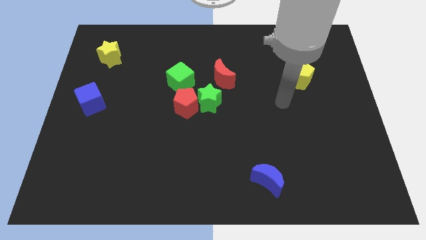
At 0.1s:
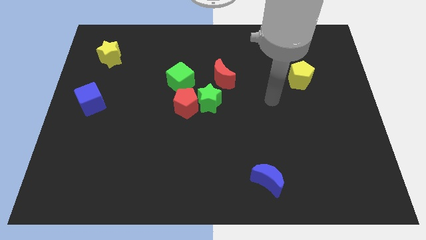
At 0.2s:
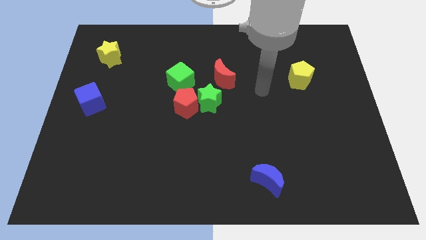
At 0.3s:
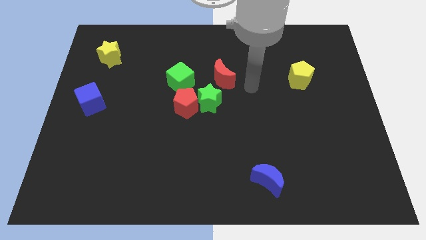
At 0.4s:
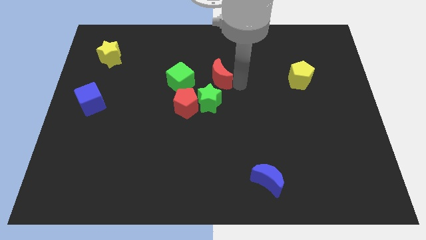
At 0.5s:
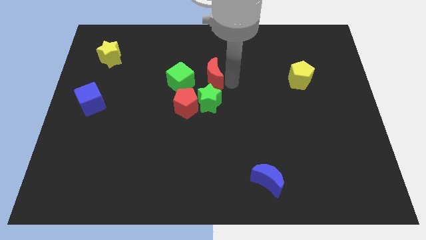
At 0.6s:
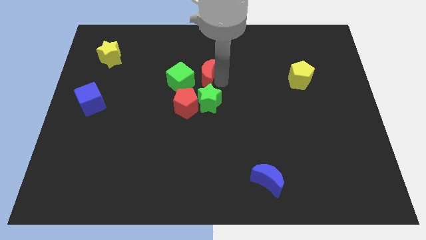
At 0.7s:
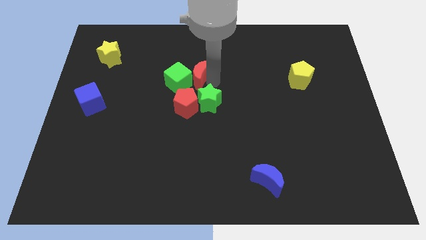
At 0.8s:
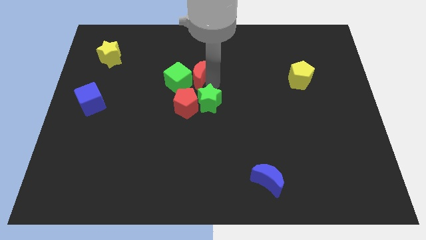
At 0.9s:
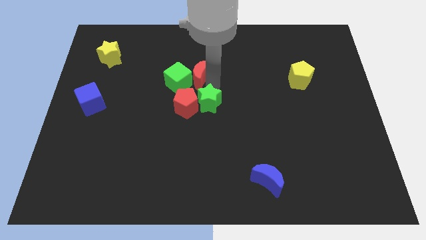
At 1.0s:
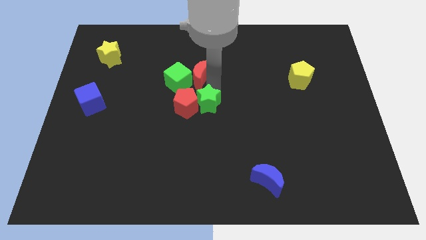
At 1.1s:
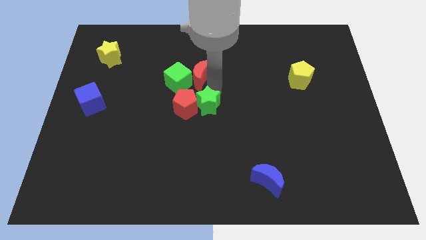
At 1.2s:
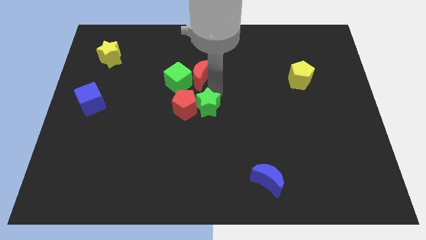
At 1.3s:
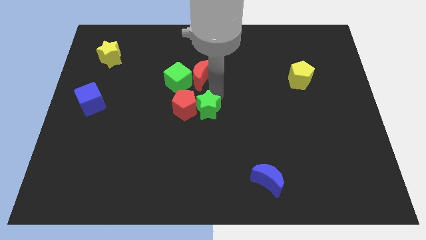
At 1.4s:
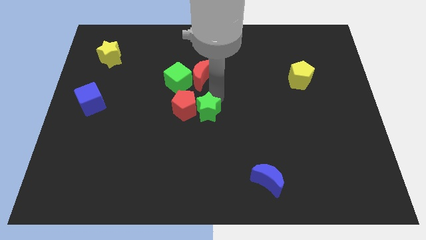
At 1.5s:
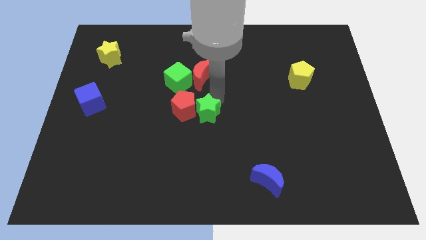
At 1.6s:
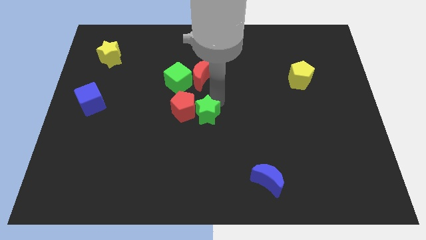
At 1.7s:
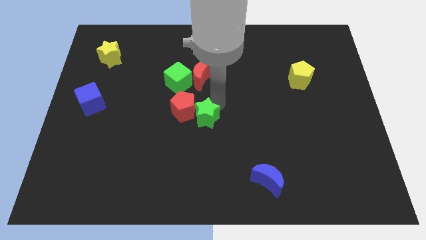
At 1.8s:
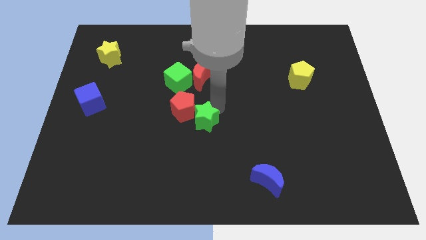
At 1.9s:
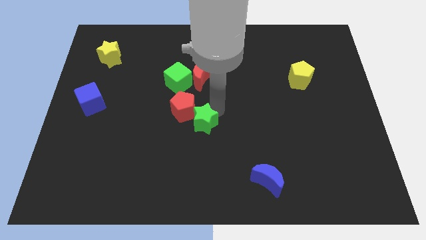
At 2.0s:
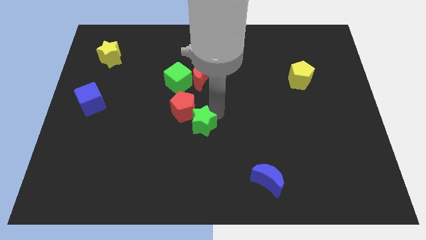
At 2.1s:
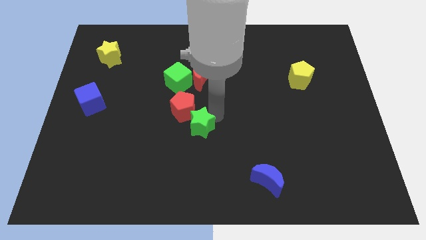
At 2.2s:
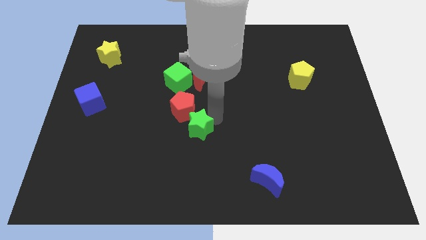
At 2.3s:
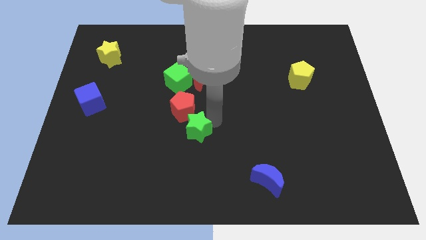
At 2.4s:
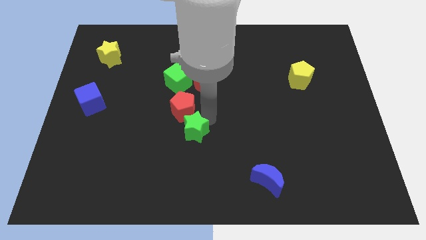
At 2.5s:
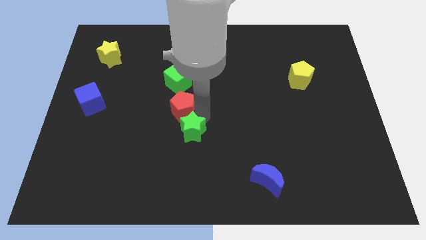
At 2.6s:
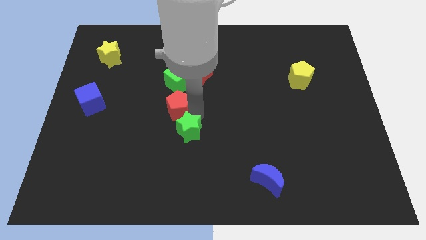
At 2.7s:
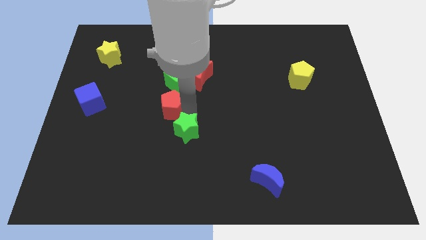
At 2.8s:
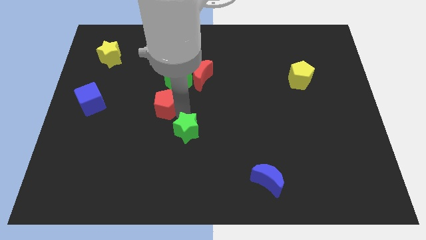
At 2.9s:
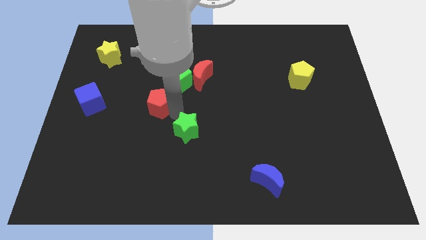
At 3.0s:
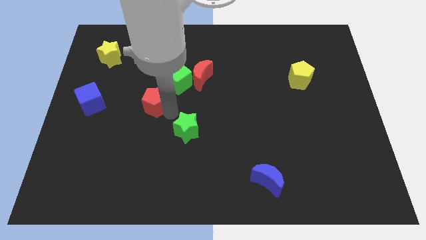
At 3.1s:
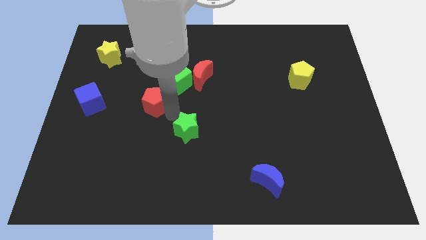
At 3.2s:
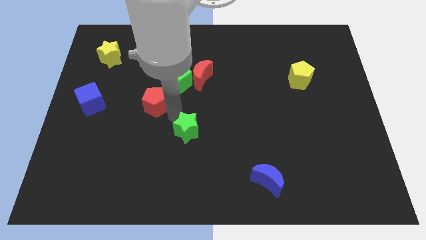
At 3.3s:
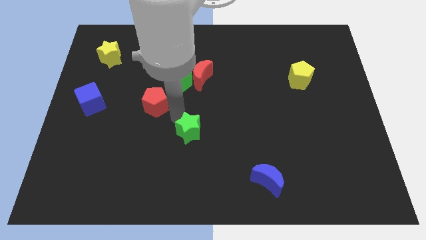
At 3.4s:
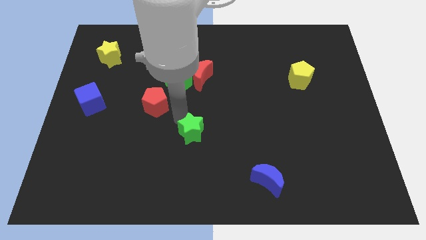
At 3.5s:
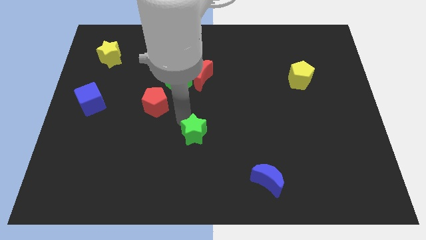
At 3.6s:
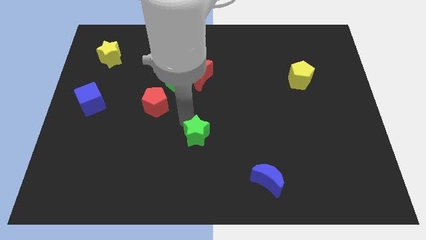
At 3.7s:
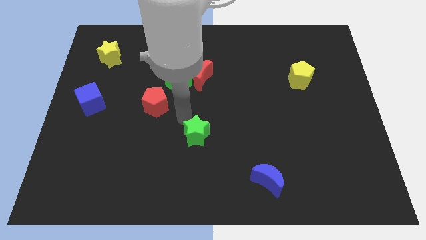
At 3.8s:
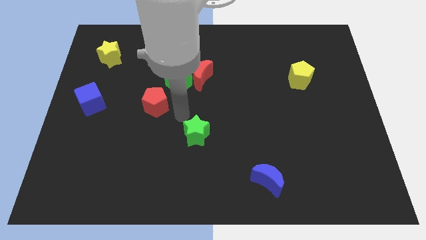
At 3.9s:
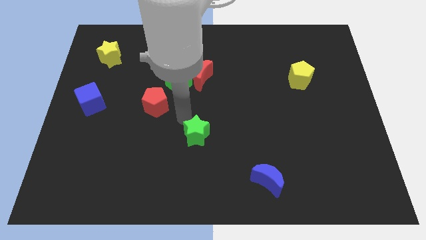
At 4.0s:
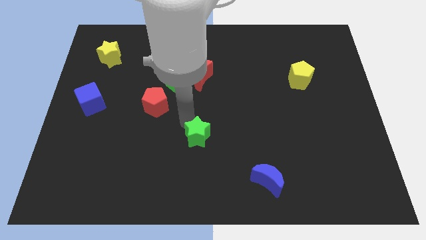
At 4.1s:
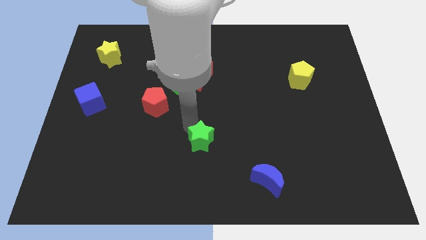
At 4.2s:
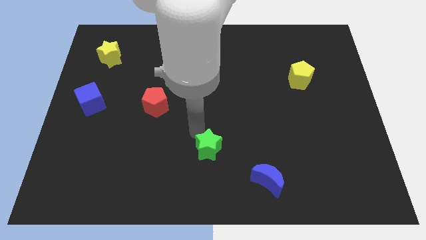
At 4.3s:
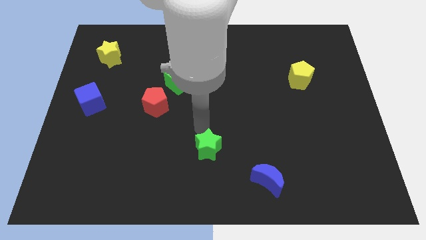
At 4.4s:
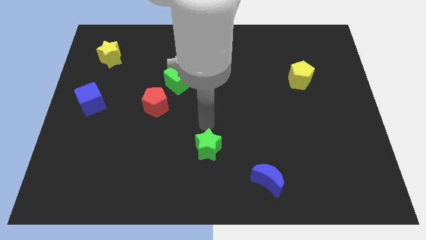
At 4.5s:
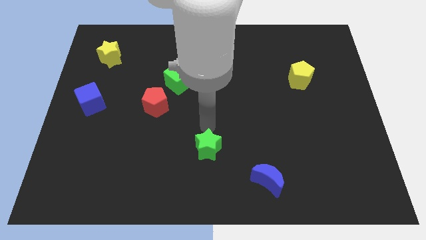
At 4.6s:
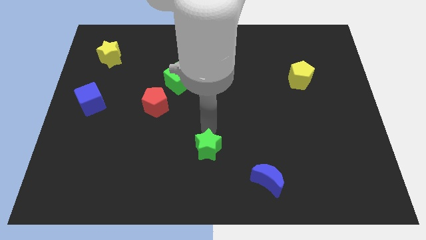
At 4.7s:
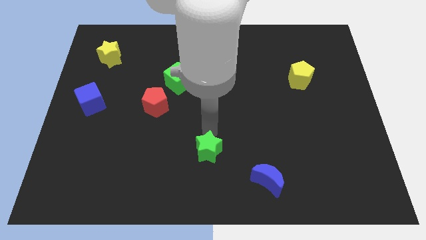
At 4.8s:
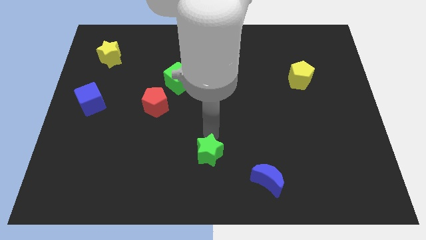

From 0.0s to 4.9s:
move the green star to the bottom side

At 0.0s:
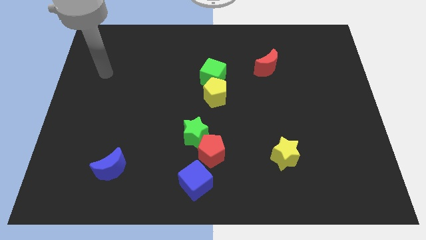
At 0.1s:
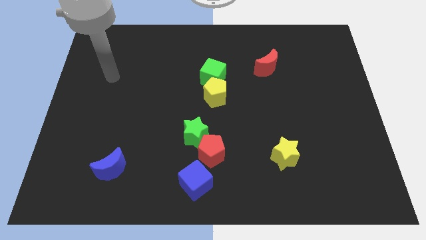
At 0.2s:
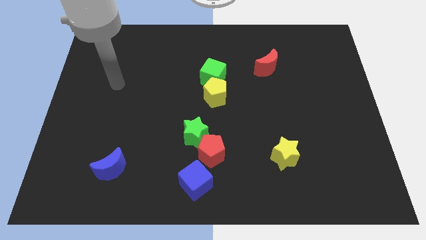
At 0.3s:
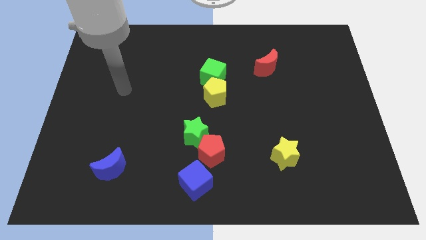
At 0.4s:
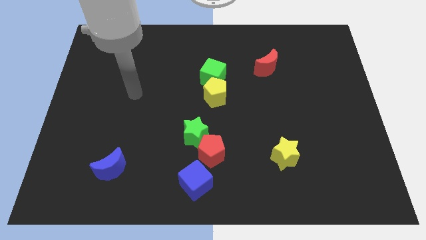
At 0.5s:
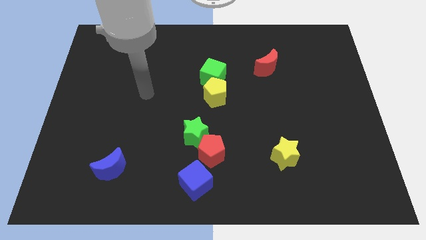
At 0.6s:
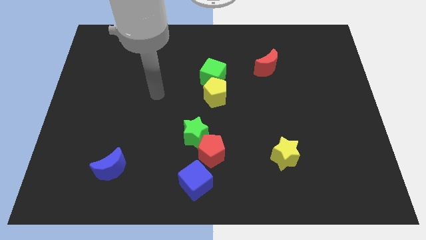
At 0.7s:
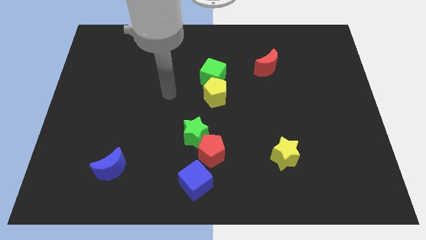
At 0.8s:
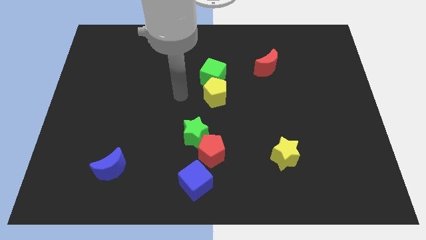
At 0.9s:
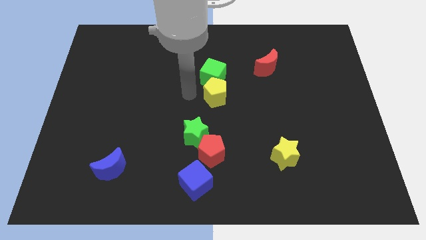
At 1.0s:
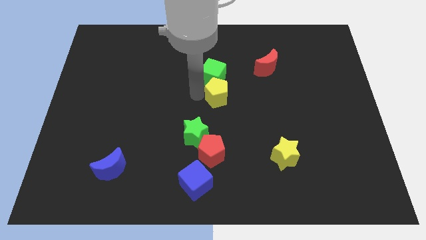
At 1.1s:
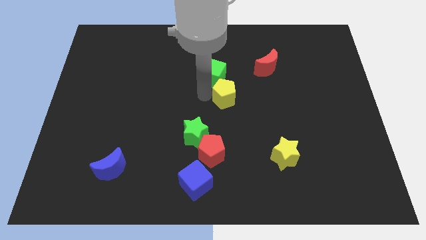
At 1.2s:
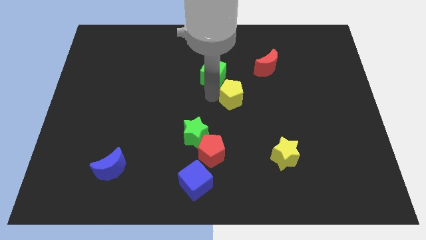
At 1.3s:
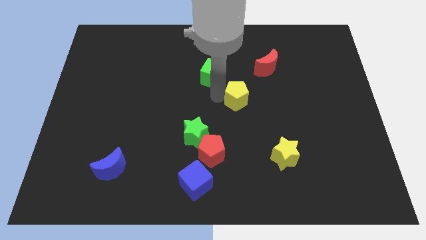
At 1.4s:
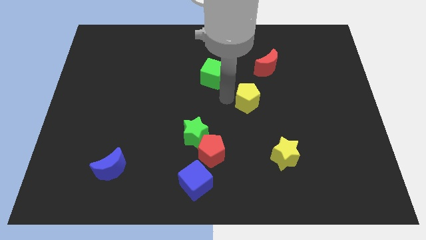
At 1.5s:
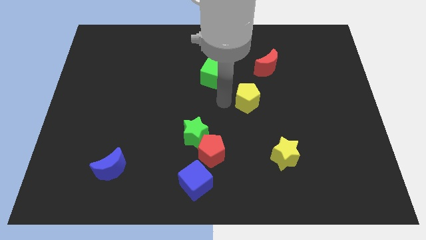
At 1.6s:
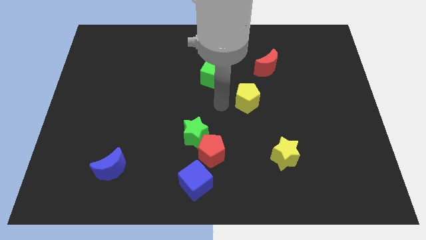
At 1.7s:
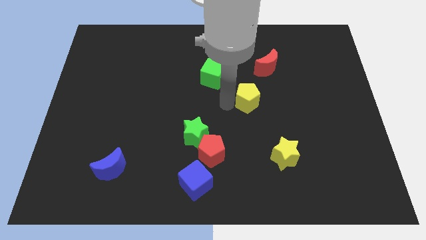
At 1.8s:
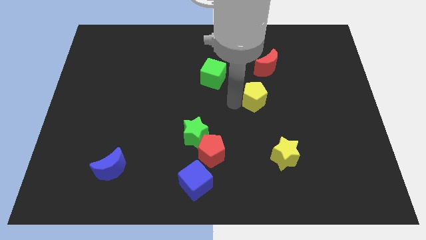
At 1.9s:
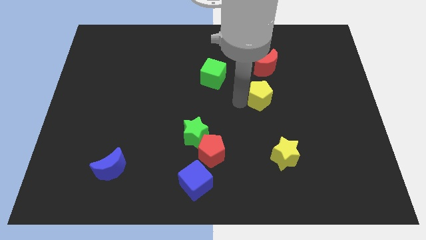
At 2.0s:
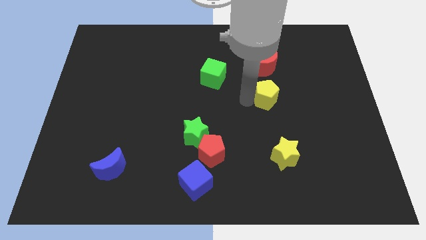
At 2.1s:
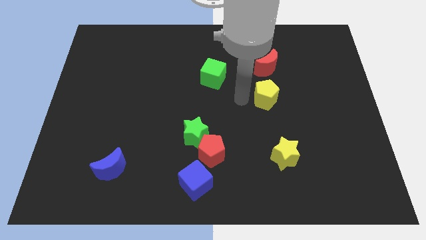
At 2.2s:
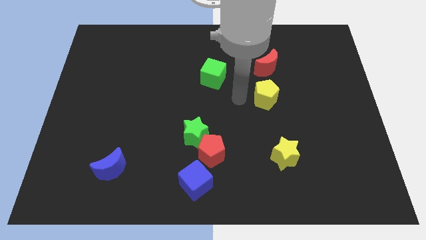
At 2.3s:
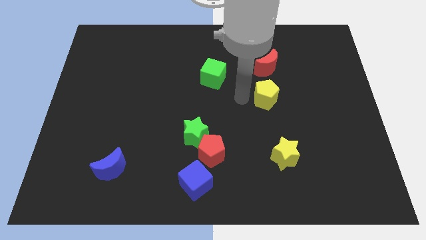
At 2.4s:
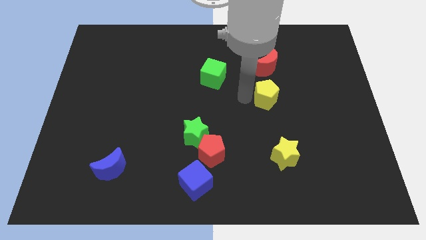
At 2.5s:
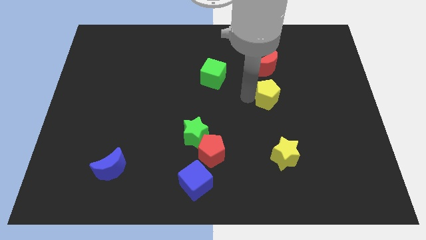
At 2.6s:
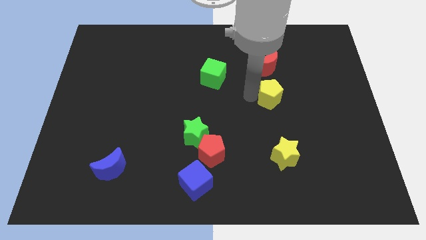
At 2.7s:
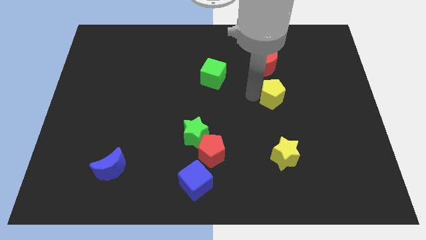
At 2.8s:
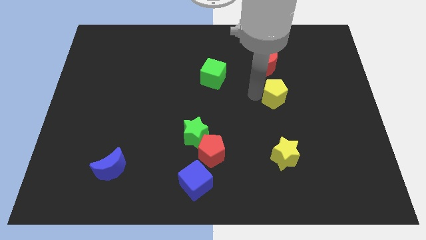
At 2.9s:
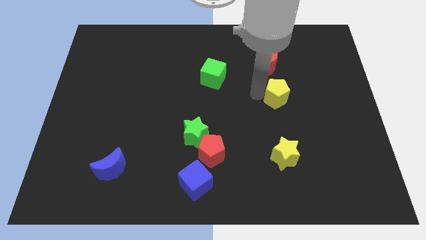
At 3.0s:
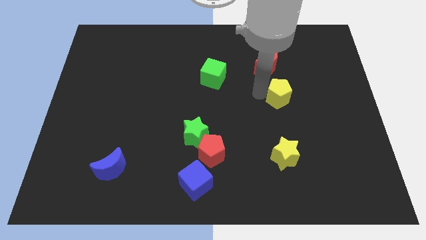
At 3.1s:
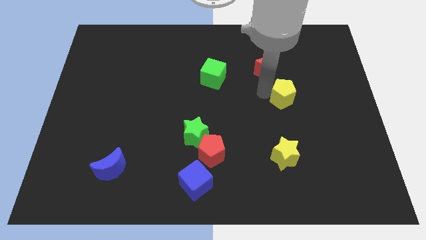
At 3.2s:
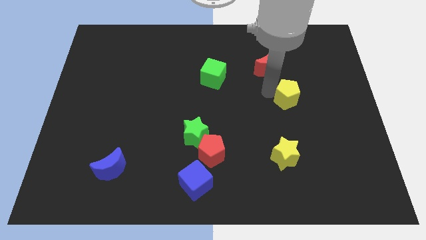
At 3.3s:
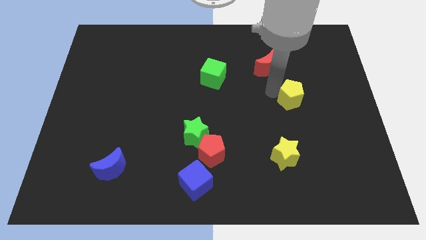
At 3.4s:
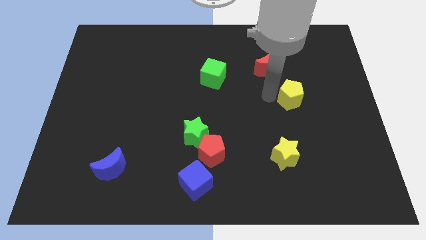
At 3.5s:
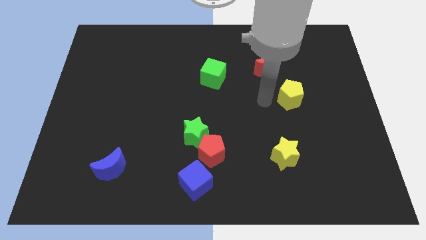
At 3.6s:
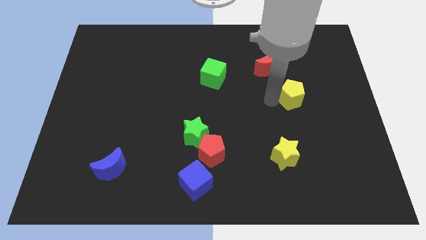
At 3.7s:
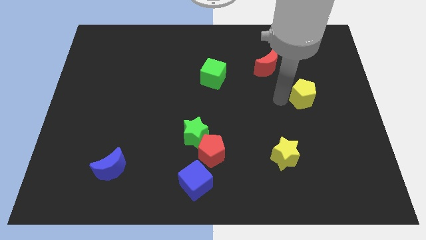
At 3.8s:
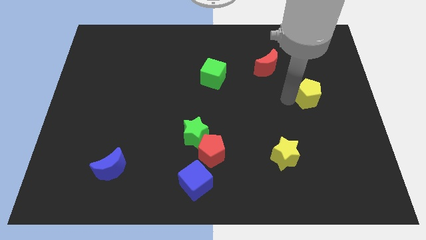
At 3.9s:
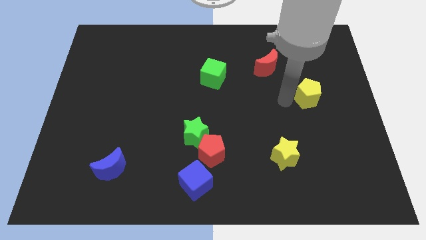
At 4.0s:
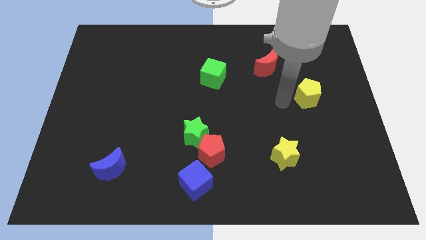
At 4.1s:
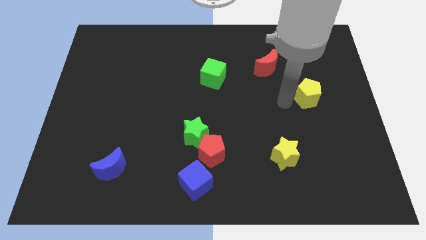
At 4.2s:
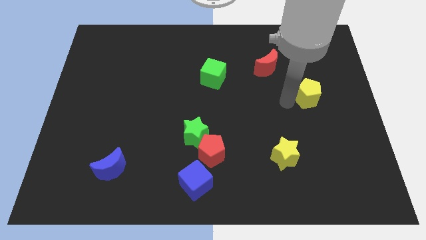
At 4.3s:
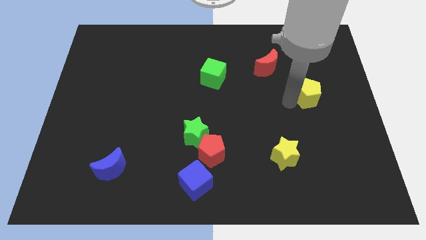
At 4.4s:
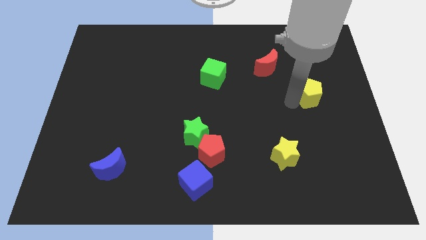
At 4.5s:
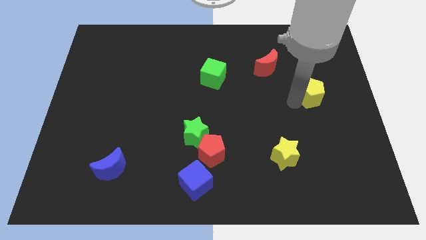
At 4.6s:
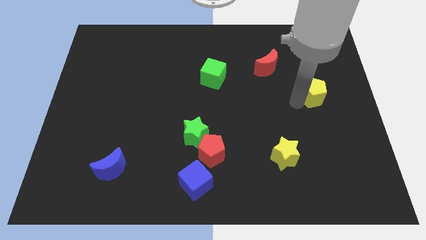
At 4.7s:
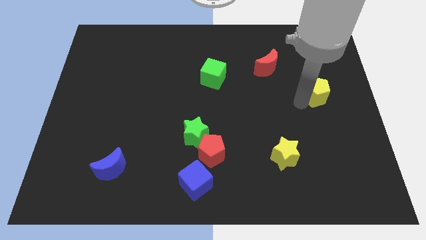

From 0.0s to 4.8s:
slide the yellow pentagon to the center right
